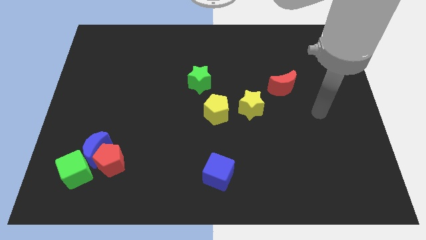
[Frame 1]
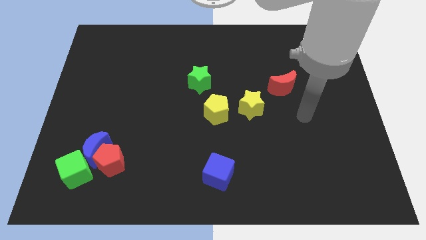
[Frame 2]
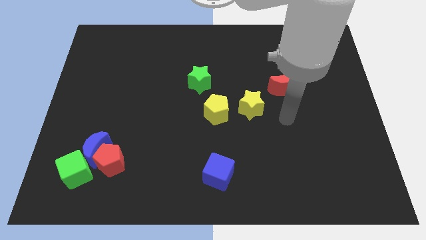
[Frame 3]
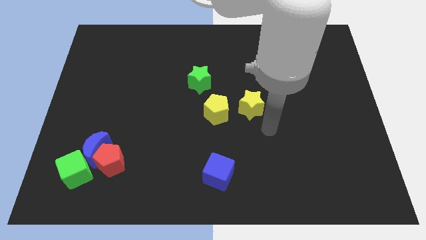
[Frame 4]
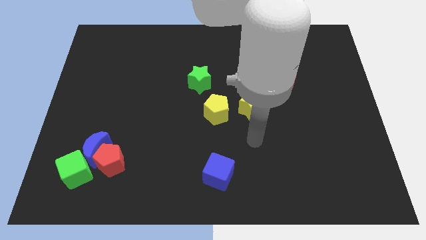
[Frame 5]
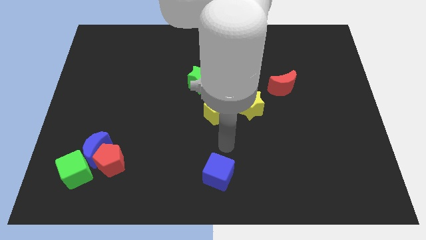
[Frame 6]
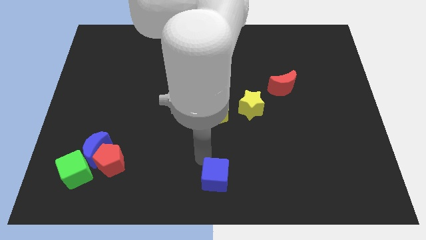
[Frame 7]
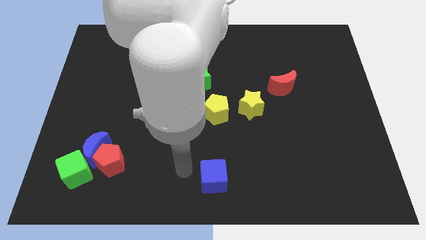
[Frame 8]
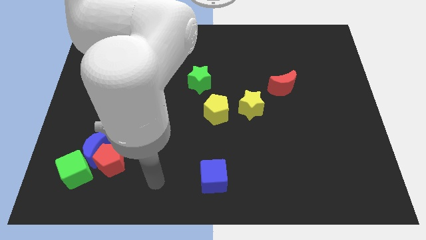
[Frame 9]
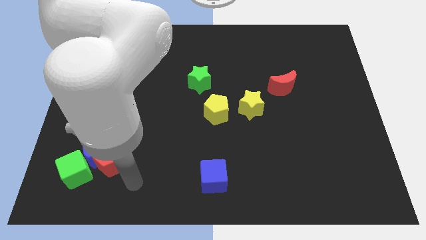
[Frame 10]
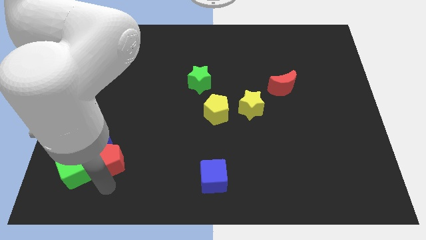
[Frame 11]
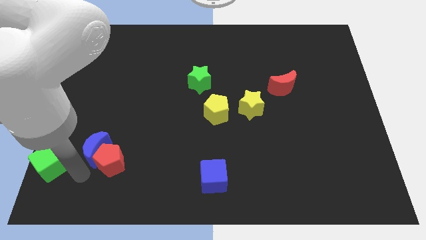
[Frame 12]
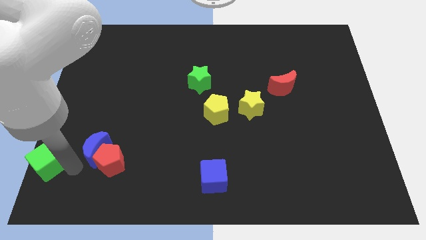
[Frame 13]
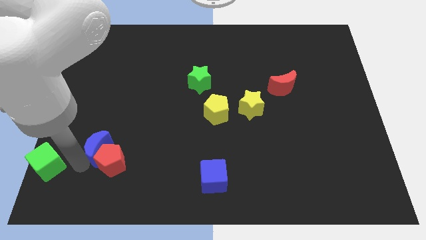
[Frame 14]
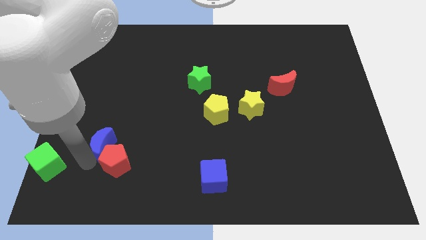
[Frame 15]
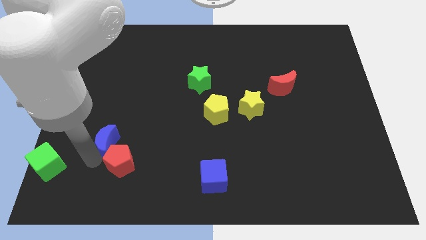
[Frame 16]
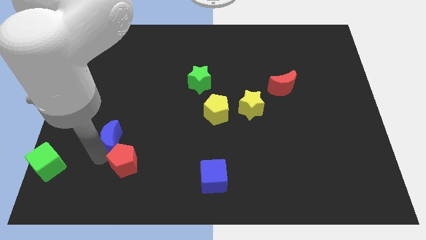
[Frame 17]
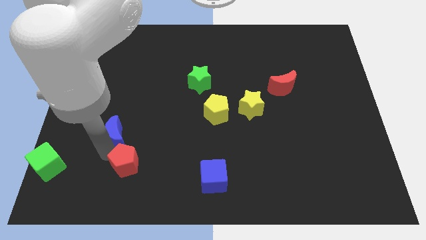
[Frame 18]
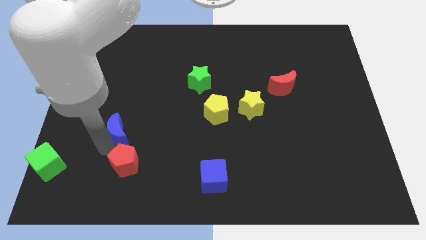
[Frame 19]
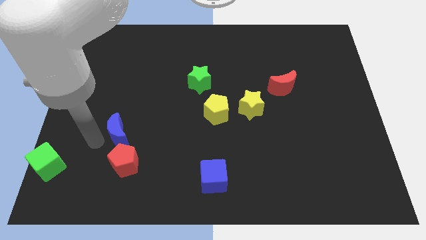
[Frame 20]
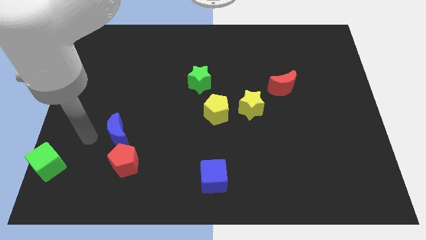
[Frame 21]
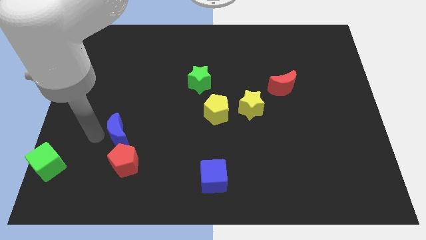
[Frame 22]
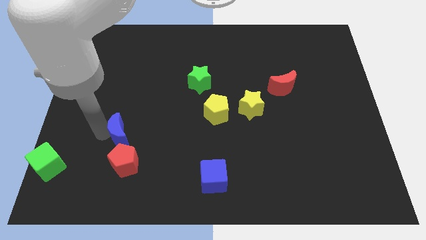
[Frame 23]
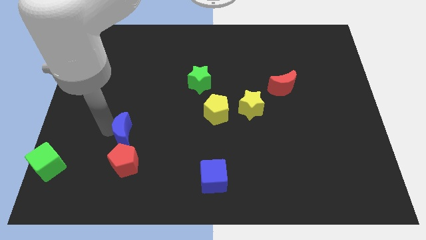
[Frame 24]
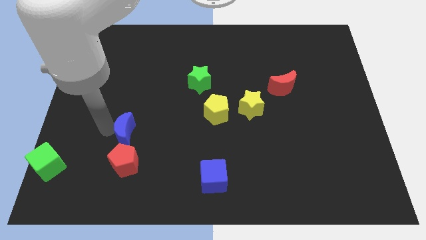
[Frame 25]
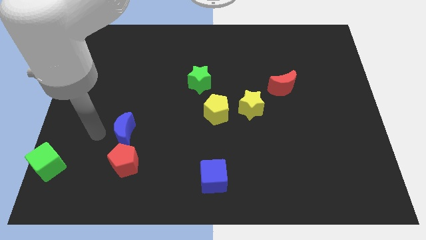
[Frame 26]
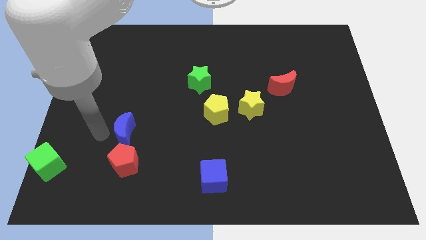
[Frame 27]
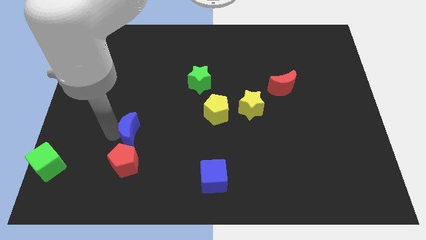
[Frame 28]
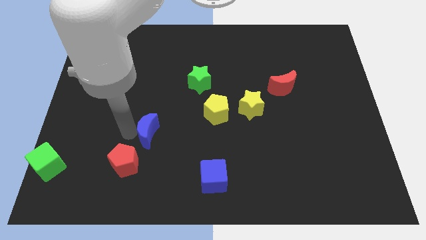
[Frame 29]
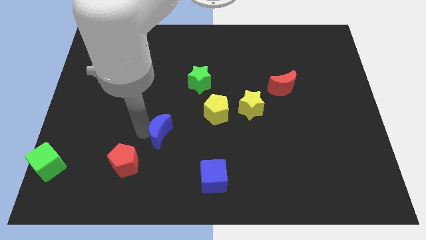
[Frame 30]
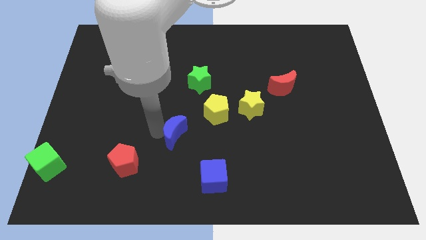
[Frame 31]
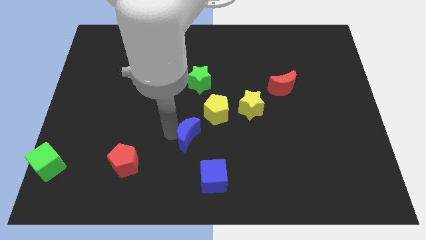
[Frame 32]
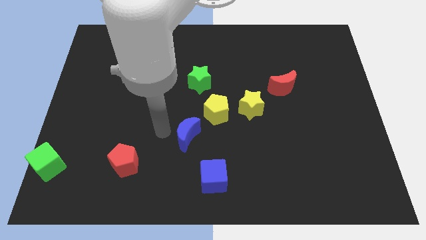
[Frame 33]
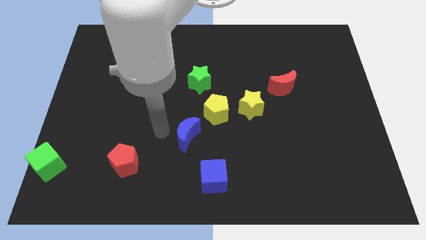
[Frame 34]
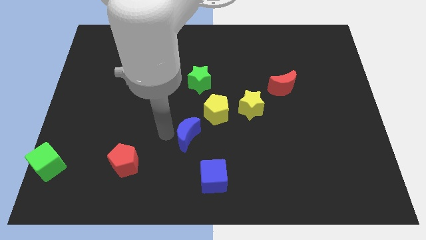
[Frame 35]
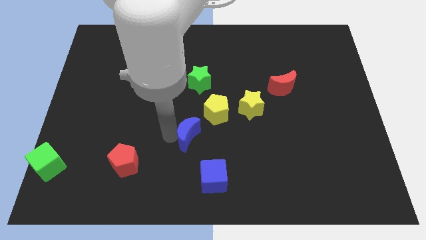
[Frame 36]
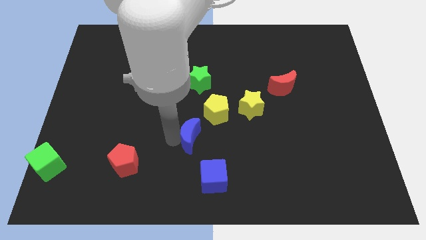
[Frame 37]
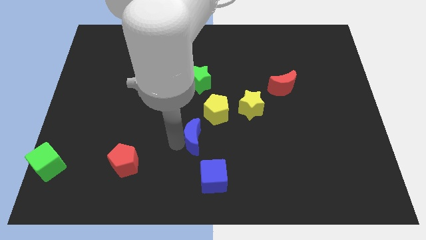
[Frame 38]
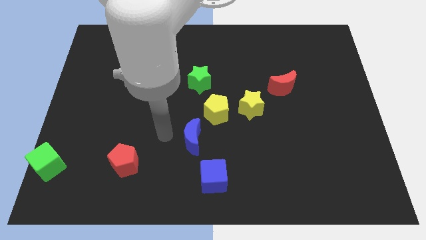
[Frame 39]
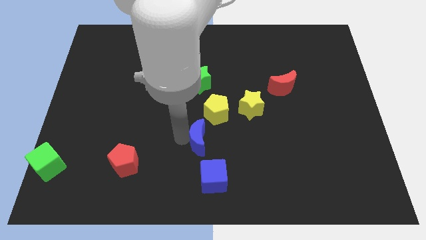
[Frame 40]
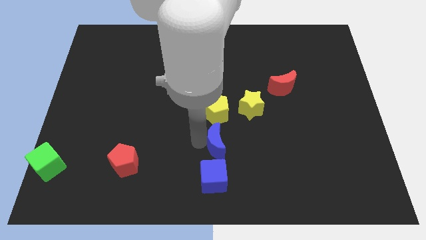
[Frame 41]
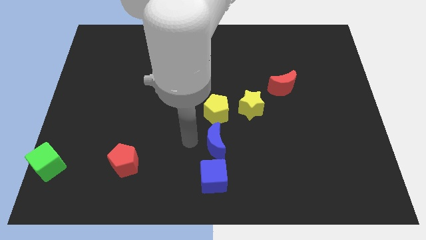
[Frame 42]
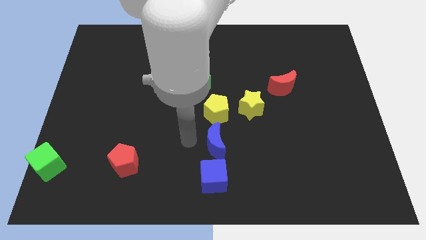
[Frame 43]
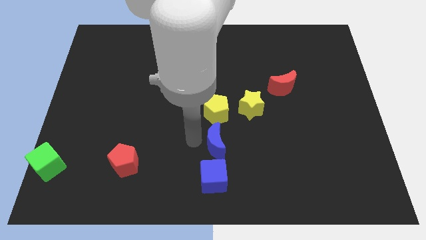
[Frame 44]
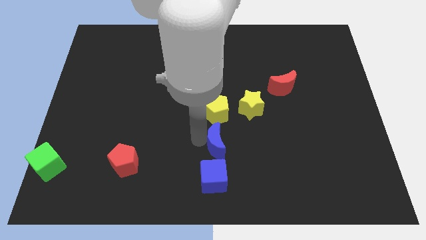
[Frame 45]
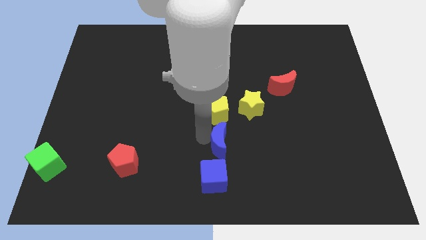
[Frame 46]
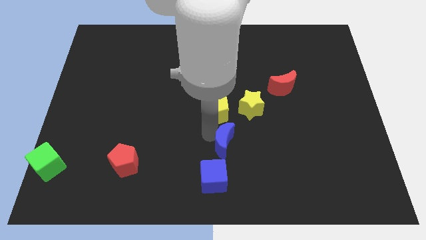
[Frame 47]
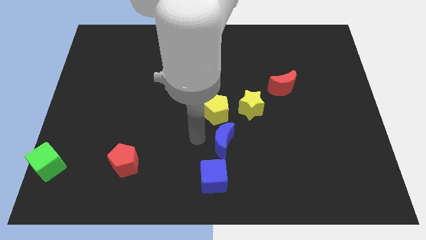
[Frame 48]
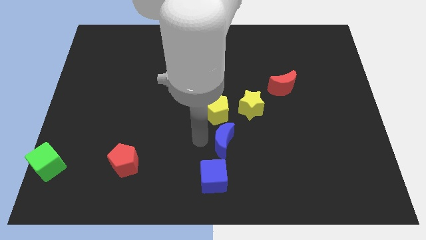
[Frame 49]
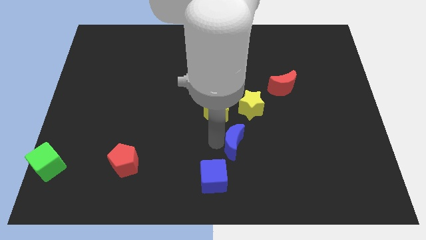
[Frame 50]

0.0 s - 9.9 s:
push the blue moon to the bottom of the yellow star

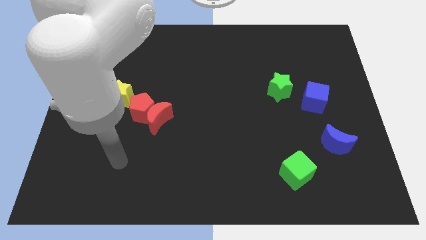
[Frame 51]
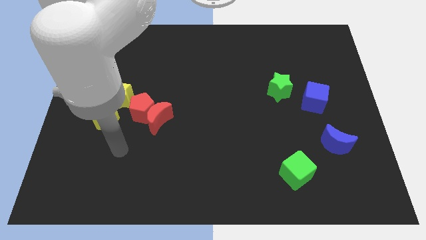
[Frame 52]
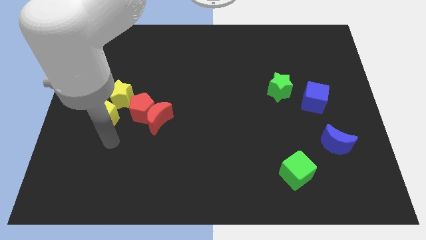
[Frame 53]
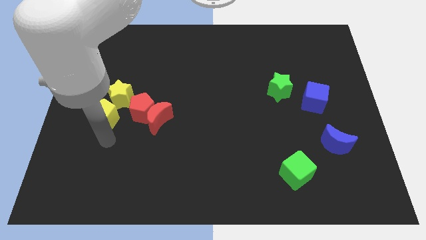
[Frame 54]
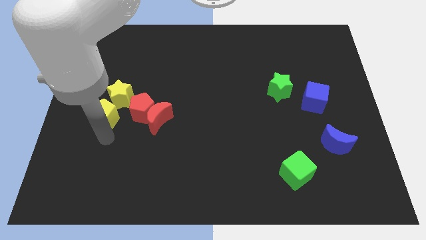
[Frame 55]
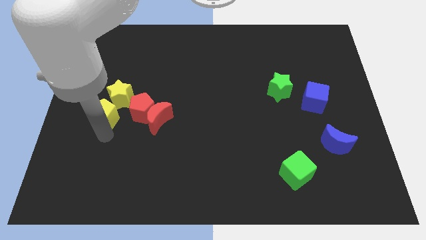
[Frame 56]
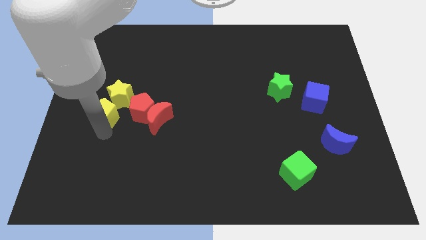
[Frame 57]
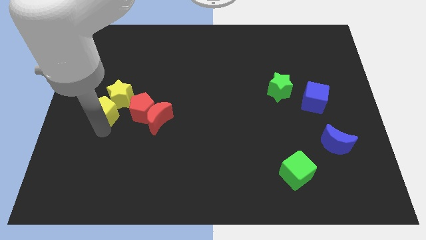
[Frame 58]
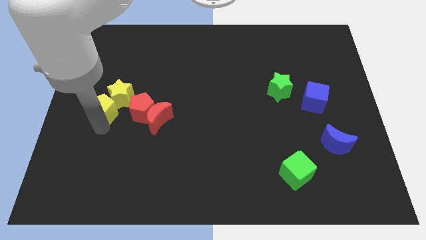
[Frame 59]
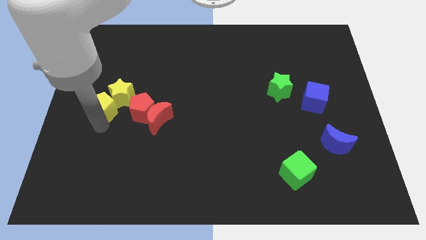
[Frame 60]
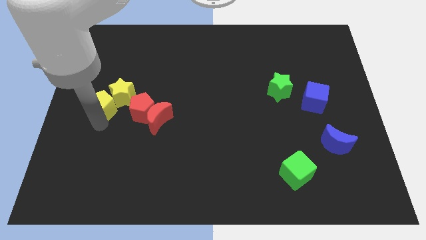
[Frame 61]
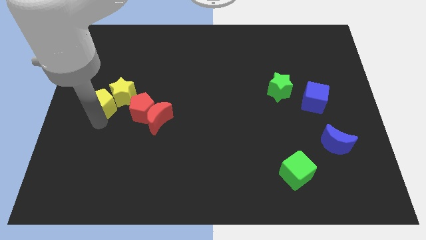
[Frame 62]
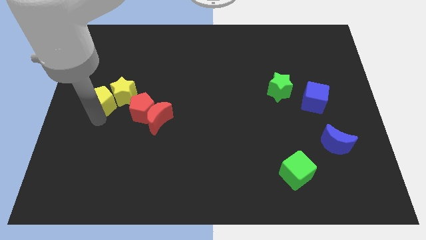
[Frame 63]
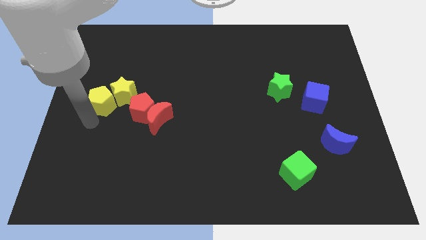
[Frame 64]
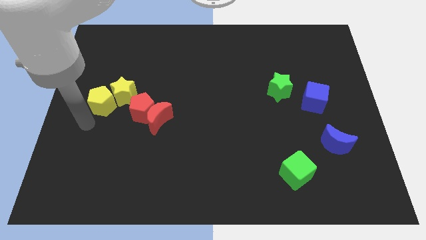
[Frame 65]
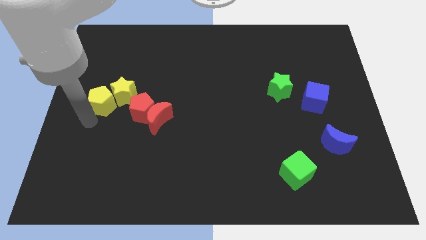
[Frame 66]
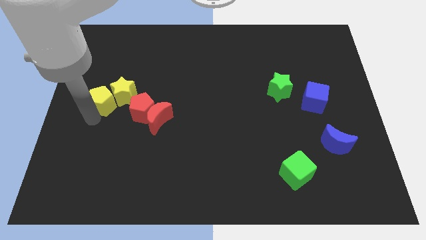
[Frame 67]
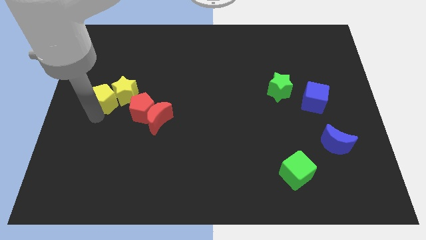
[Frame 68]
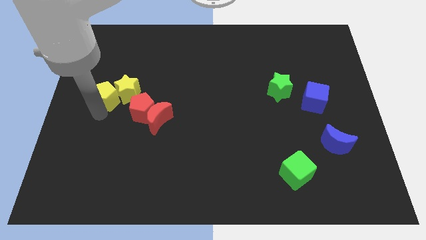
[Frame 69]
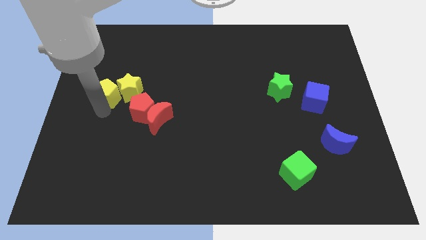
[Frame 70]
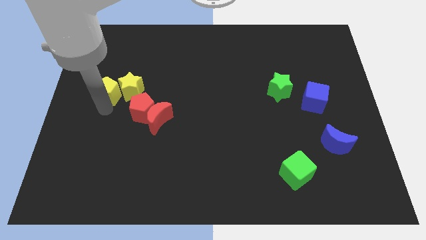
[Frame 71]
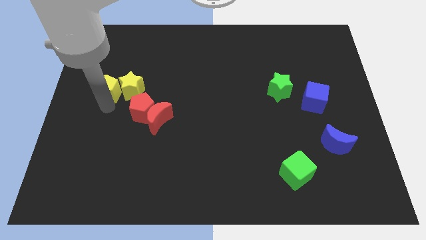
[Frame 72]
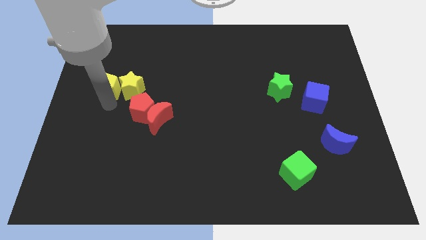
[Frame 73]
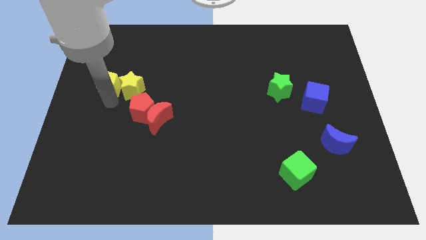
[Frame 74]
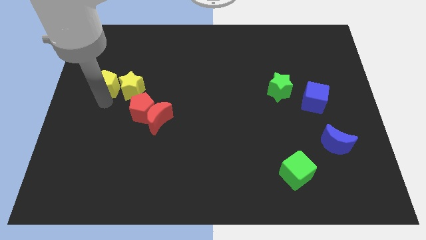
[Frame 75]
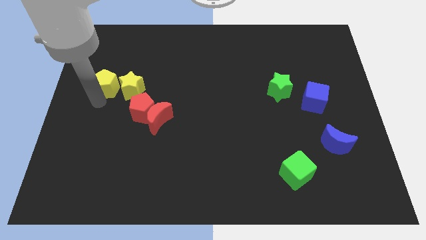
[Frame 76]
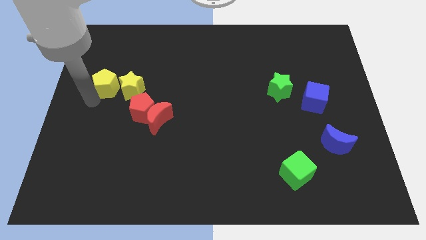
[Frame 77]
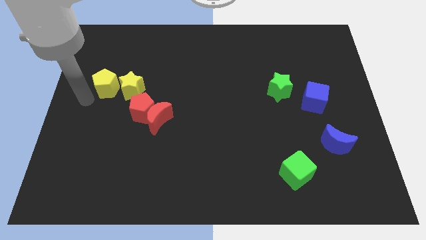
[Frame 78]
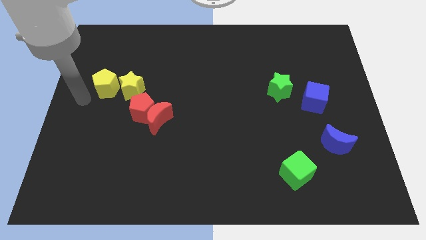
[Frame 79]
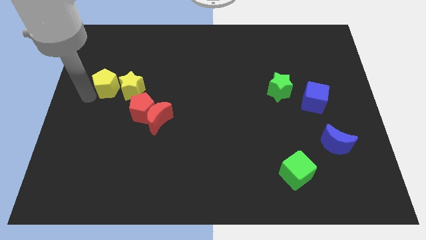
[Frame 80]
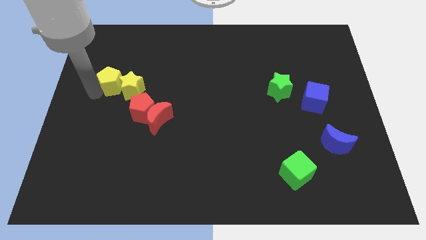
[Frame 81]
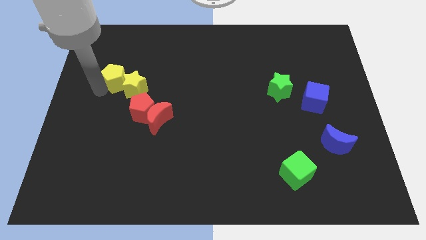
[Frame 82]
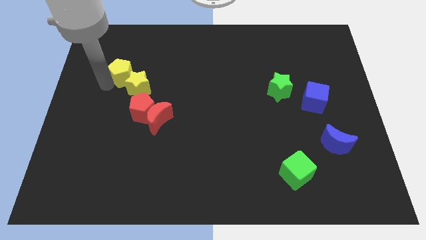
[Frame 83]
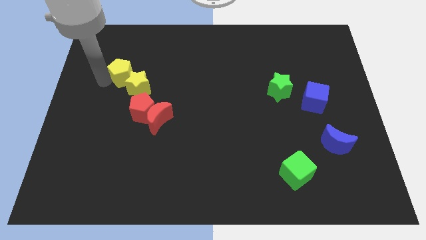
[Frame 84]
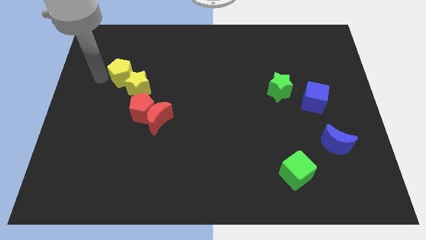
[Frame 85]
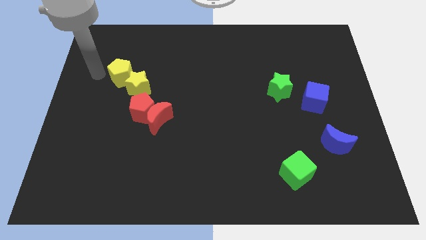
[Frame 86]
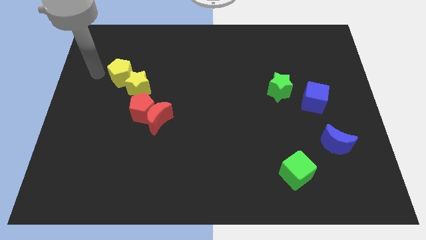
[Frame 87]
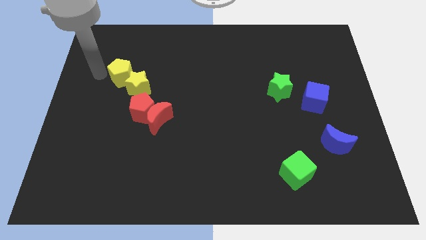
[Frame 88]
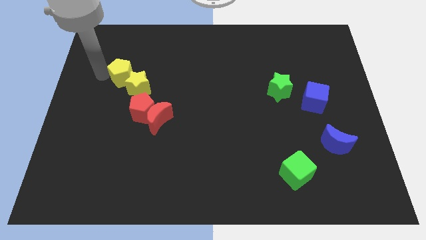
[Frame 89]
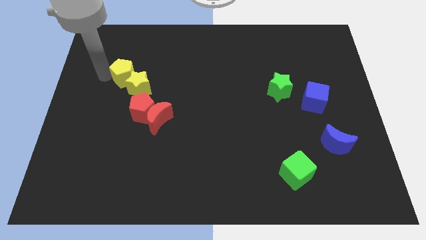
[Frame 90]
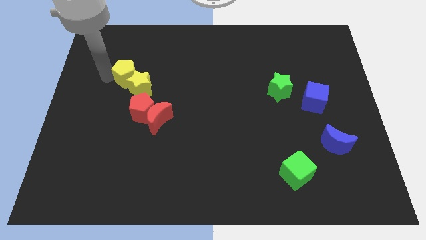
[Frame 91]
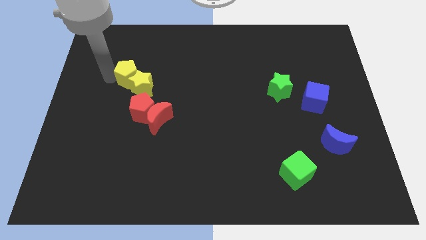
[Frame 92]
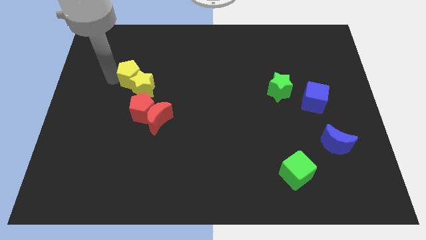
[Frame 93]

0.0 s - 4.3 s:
slide the yellow pentagon to the top of the red pentagon
